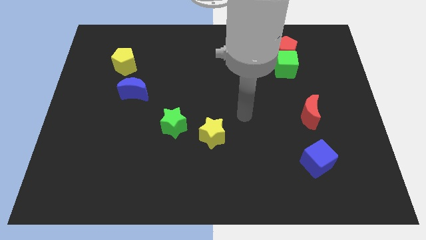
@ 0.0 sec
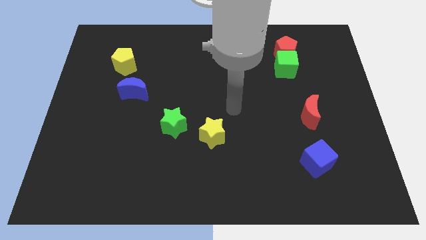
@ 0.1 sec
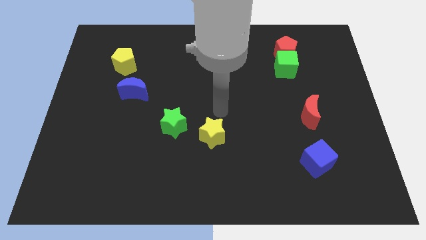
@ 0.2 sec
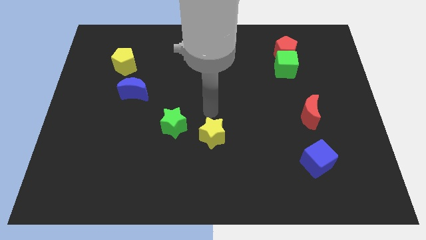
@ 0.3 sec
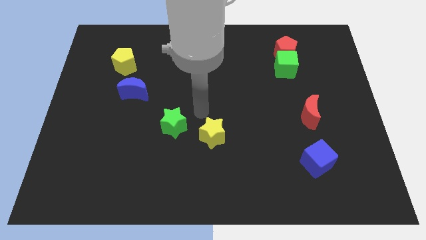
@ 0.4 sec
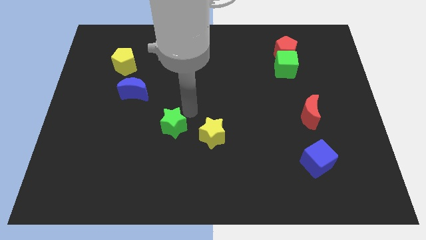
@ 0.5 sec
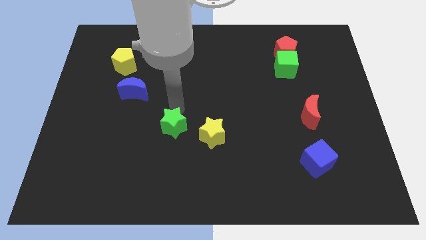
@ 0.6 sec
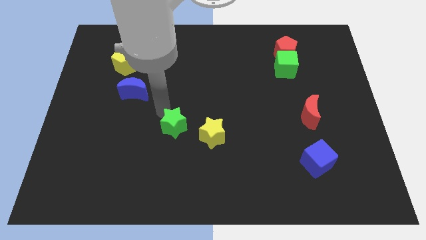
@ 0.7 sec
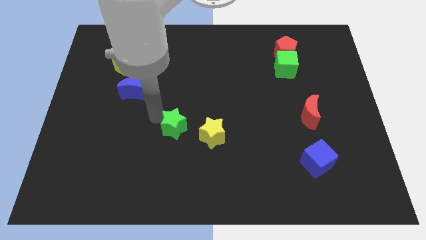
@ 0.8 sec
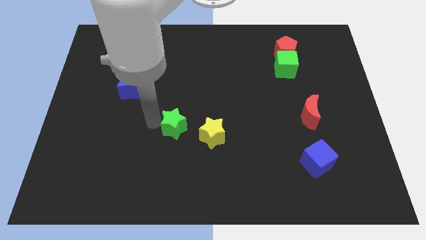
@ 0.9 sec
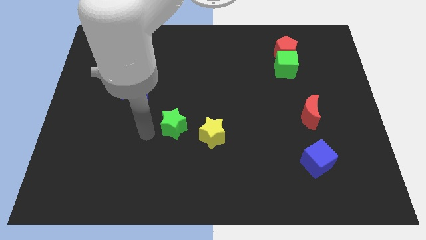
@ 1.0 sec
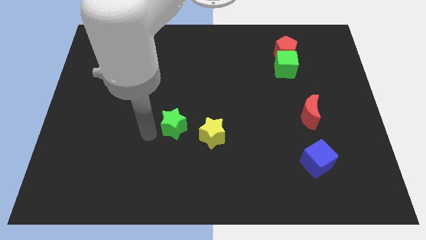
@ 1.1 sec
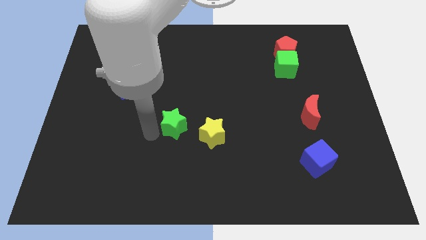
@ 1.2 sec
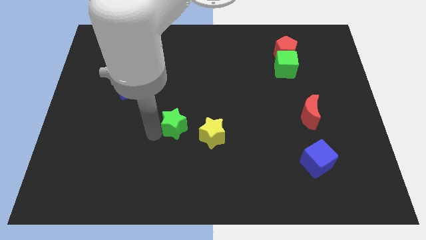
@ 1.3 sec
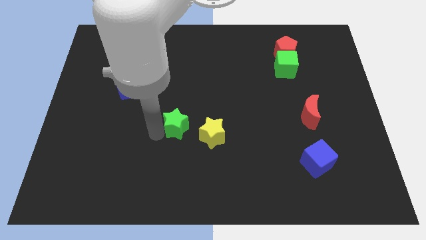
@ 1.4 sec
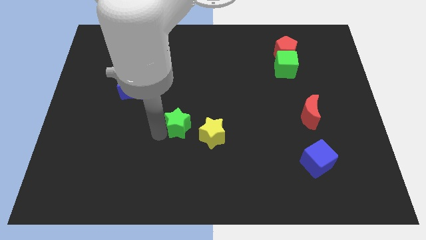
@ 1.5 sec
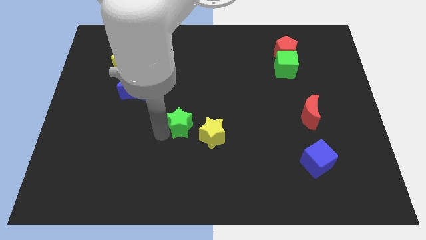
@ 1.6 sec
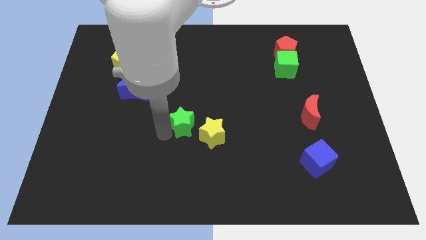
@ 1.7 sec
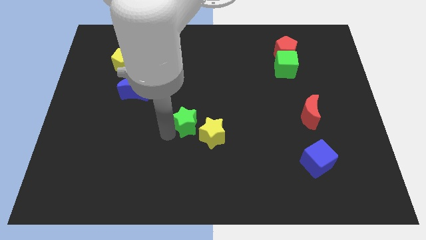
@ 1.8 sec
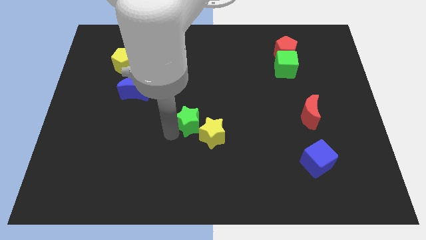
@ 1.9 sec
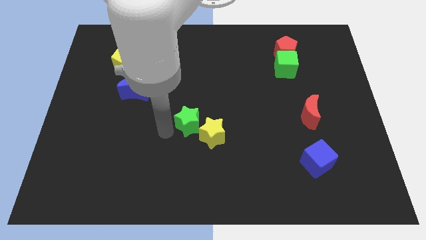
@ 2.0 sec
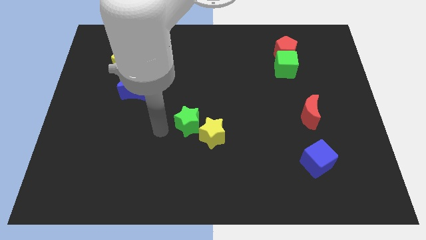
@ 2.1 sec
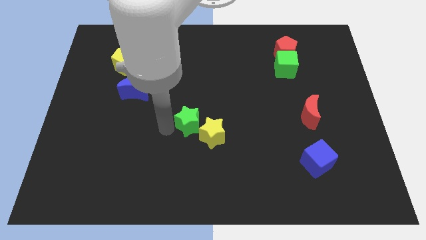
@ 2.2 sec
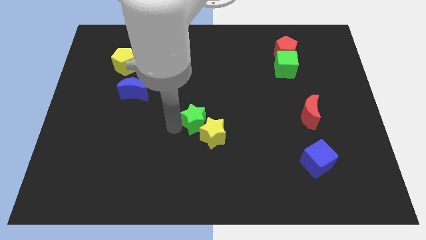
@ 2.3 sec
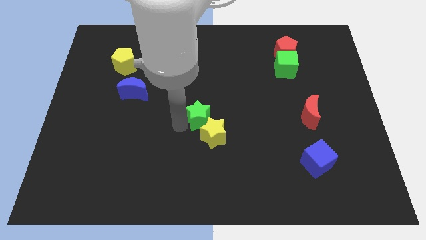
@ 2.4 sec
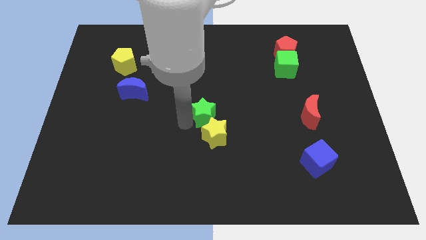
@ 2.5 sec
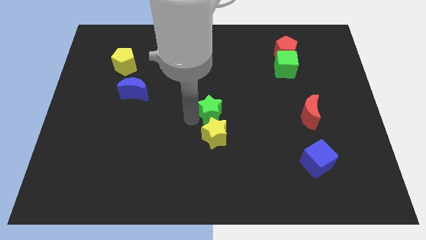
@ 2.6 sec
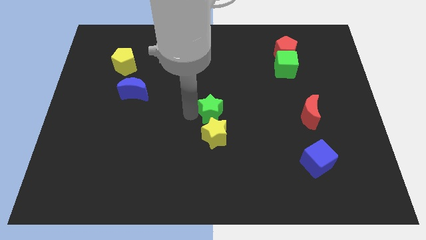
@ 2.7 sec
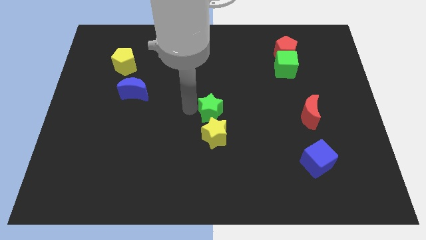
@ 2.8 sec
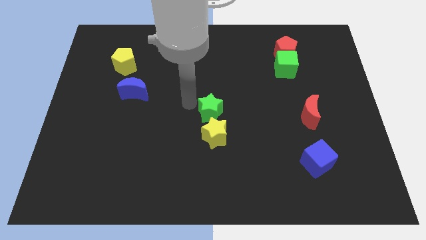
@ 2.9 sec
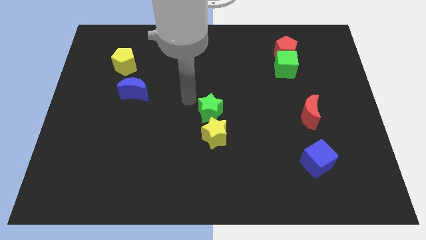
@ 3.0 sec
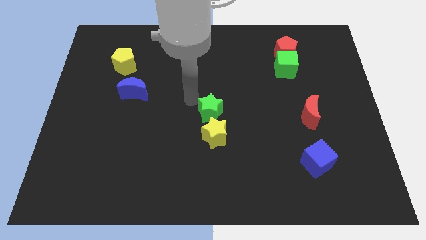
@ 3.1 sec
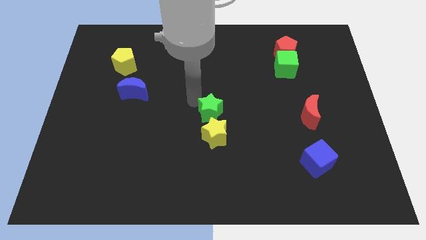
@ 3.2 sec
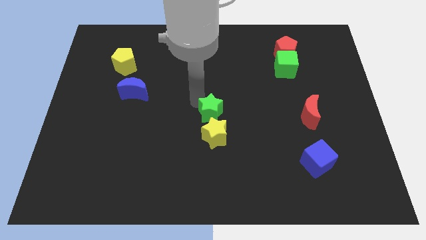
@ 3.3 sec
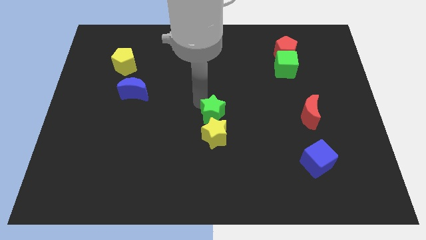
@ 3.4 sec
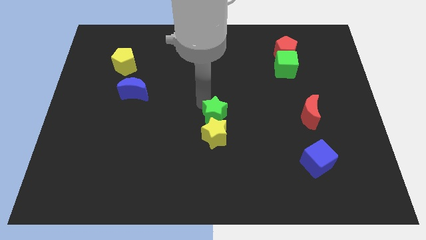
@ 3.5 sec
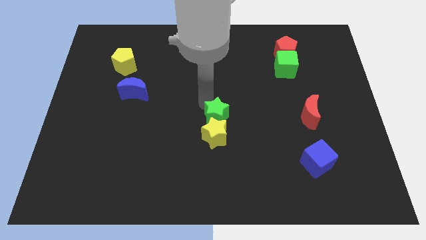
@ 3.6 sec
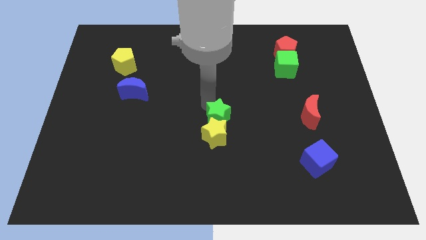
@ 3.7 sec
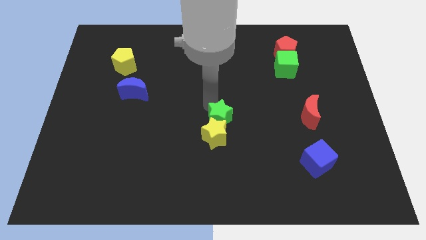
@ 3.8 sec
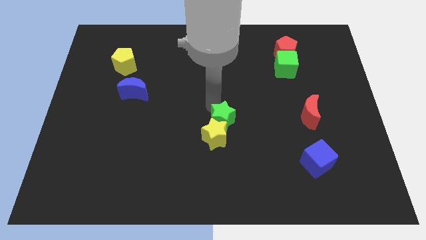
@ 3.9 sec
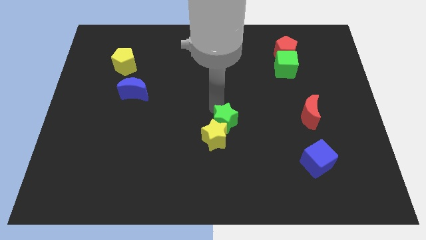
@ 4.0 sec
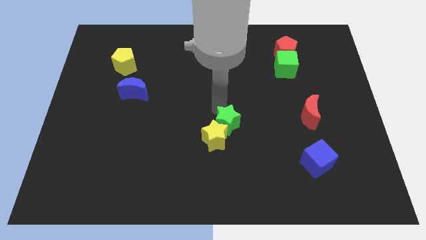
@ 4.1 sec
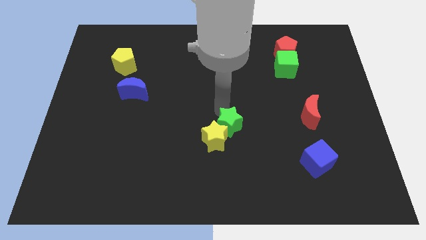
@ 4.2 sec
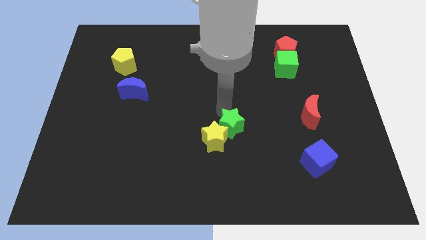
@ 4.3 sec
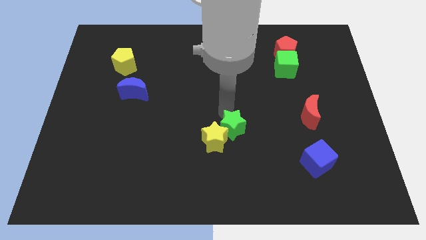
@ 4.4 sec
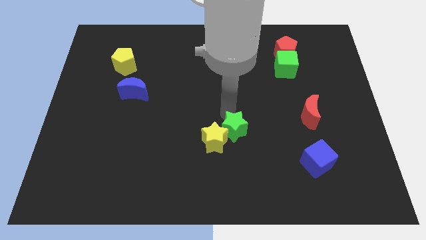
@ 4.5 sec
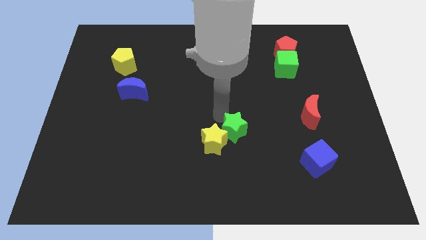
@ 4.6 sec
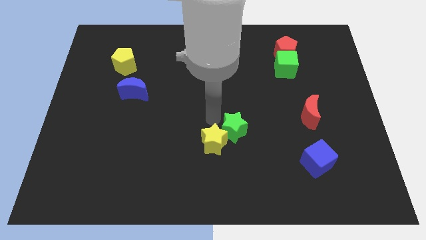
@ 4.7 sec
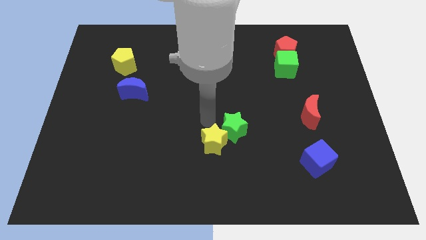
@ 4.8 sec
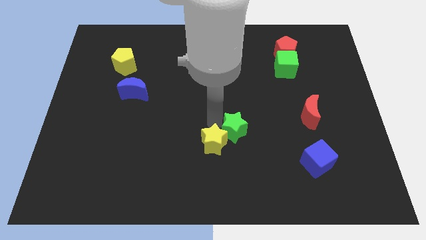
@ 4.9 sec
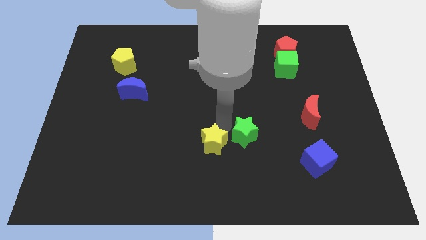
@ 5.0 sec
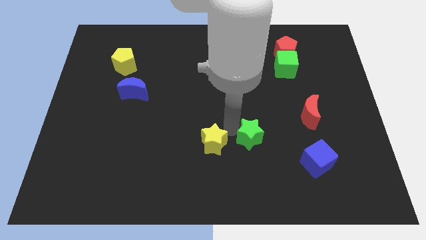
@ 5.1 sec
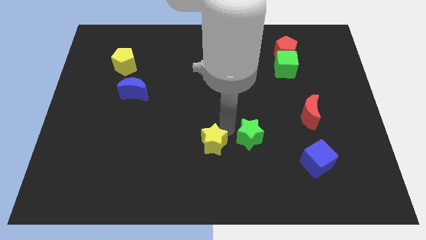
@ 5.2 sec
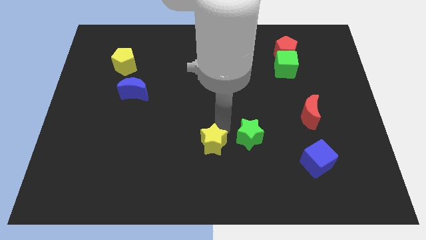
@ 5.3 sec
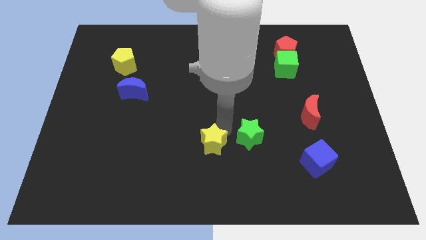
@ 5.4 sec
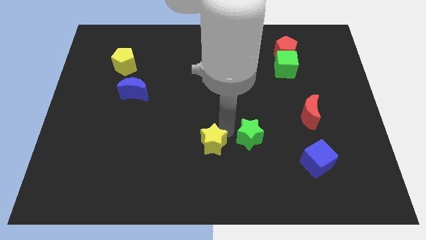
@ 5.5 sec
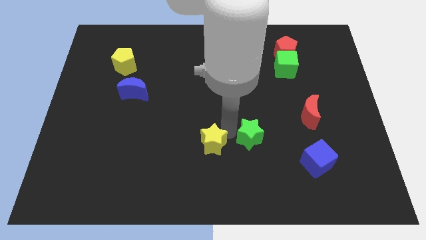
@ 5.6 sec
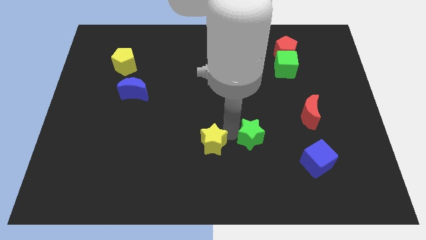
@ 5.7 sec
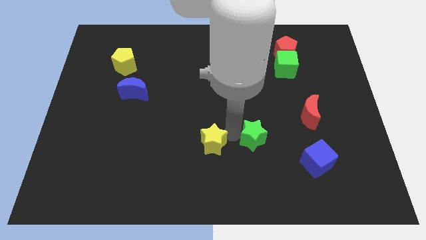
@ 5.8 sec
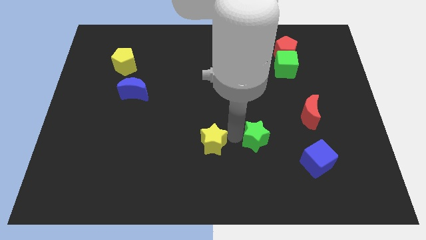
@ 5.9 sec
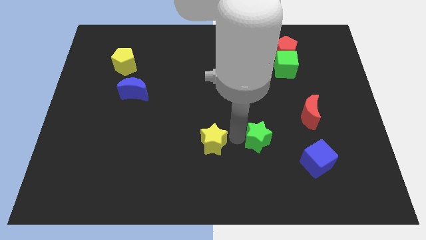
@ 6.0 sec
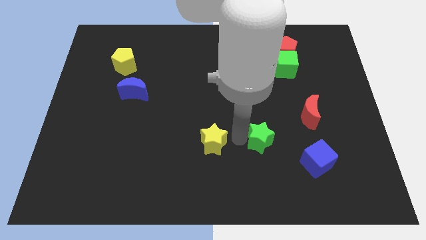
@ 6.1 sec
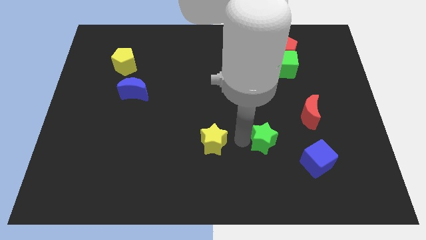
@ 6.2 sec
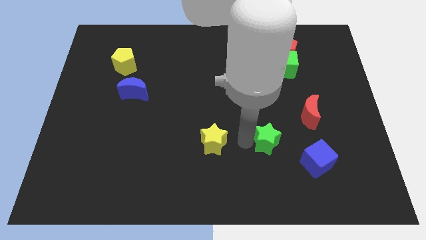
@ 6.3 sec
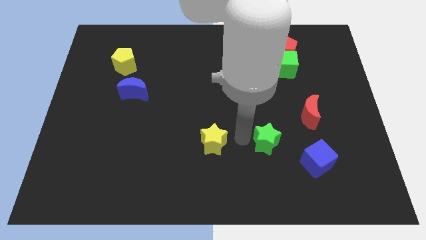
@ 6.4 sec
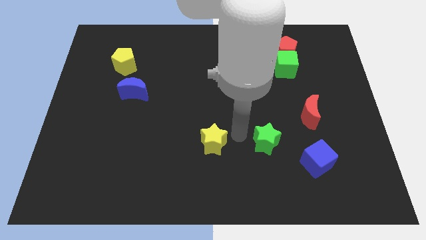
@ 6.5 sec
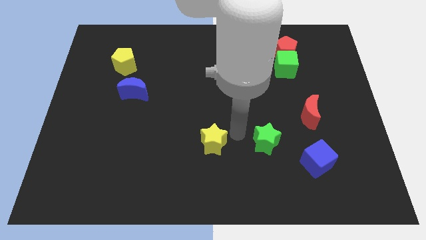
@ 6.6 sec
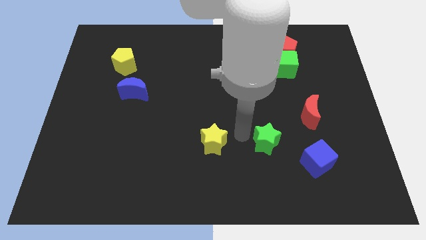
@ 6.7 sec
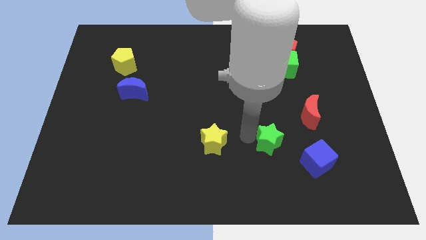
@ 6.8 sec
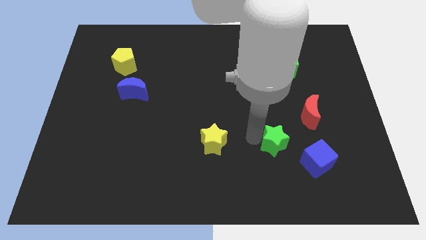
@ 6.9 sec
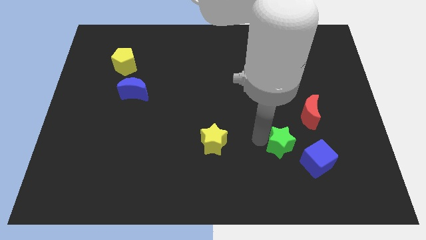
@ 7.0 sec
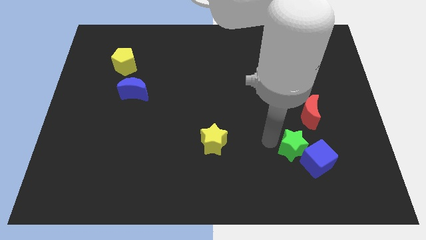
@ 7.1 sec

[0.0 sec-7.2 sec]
put the green star next to the blue cube
